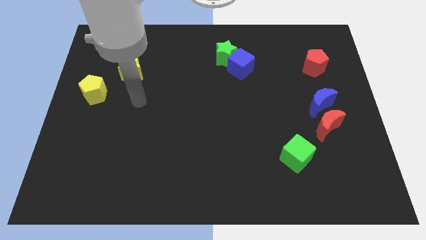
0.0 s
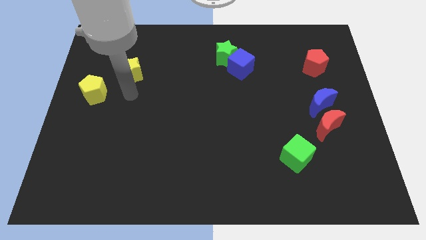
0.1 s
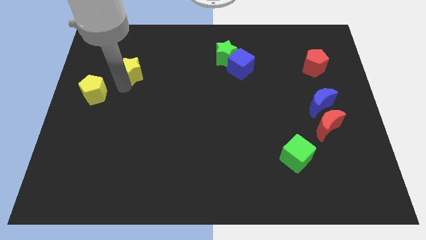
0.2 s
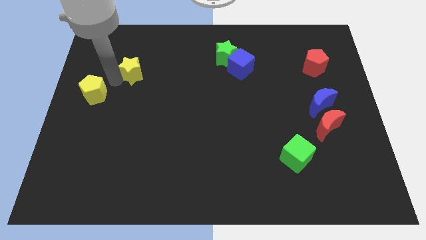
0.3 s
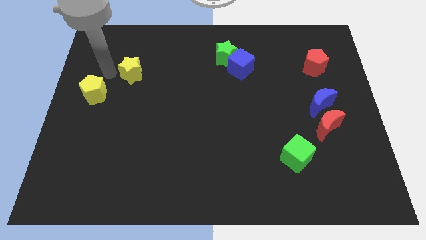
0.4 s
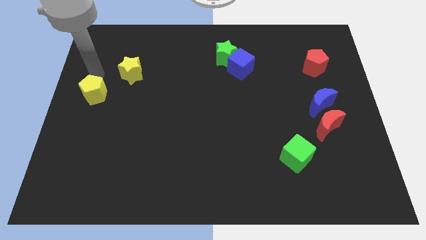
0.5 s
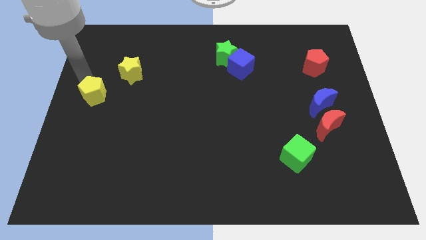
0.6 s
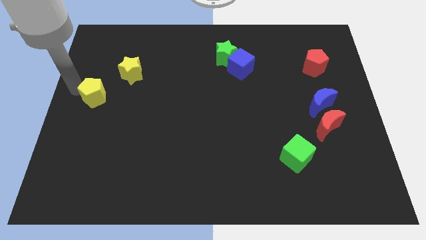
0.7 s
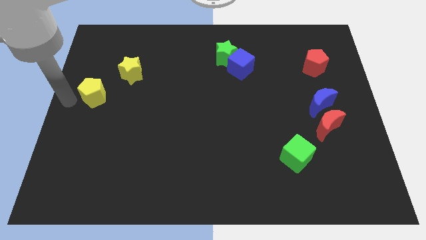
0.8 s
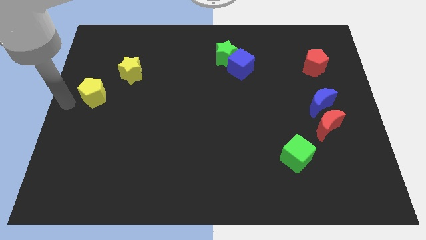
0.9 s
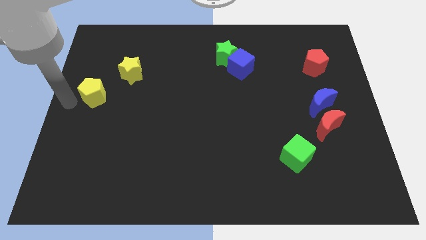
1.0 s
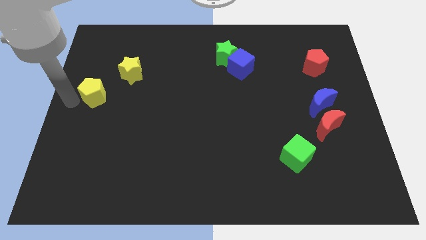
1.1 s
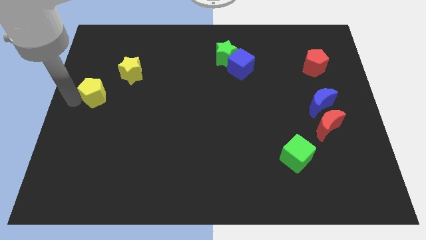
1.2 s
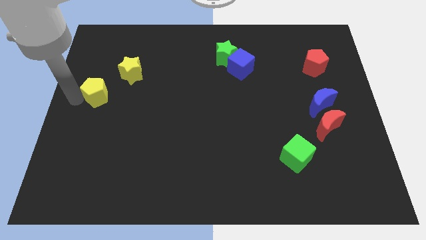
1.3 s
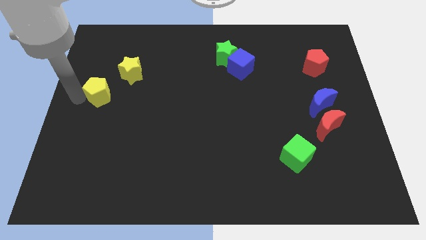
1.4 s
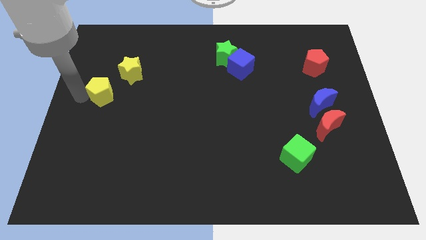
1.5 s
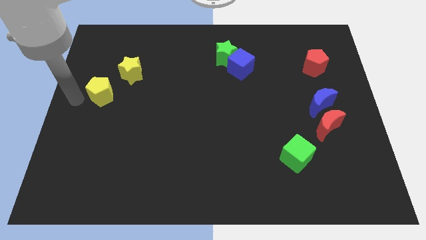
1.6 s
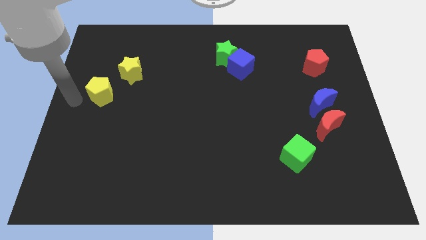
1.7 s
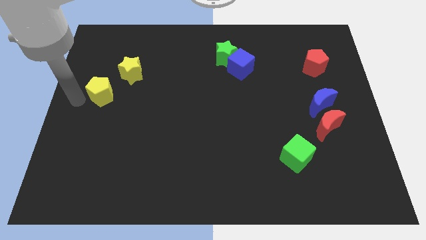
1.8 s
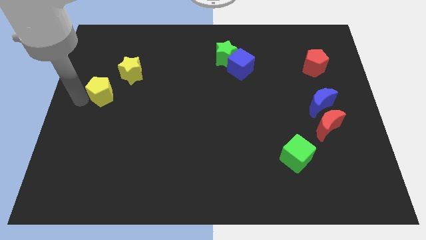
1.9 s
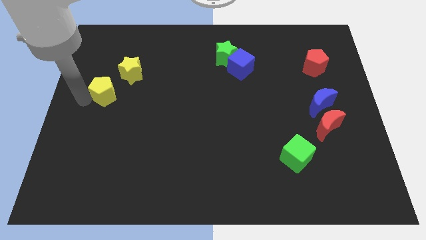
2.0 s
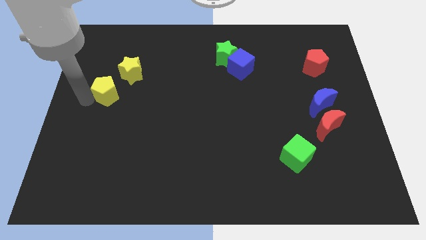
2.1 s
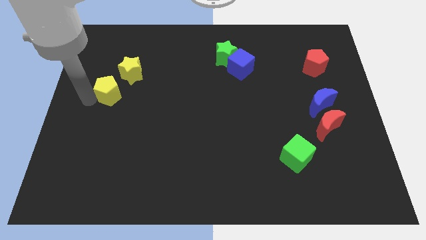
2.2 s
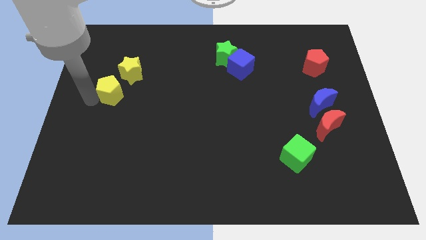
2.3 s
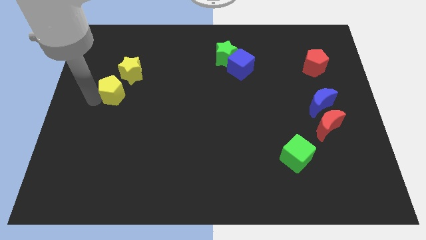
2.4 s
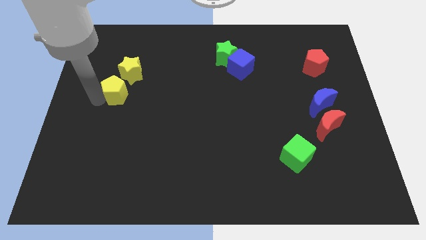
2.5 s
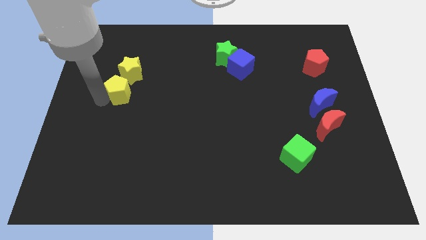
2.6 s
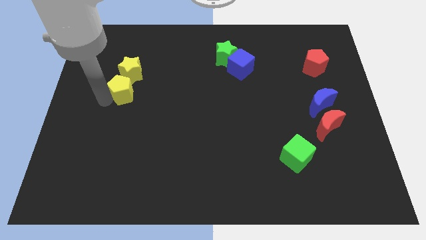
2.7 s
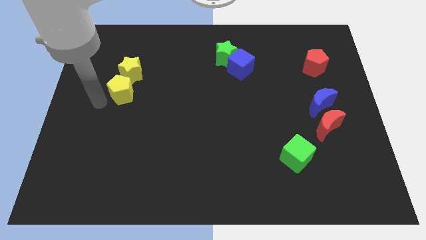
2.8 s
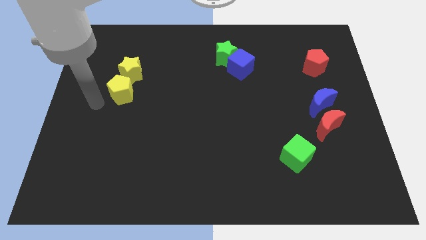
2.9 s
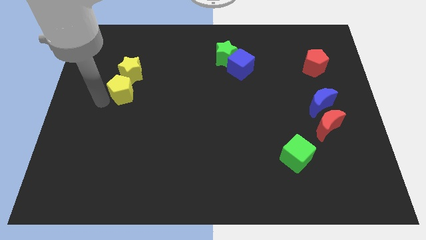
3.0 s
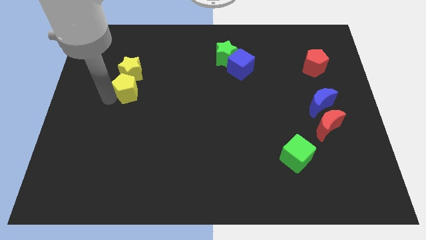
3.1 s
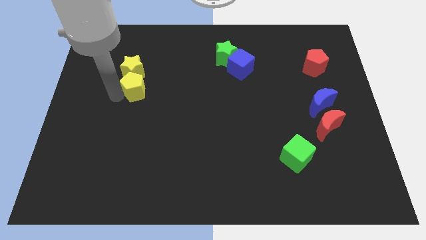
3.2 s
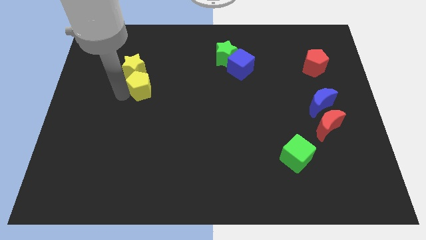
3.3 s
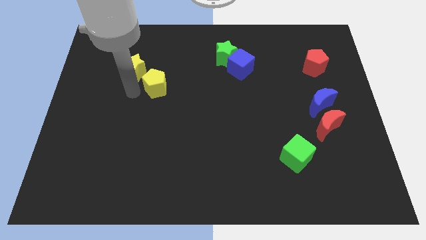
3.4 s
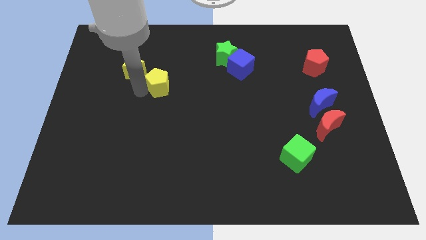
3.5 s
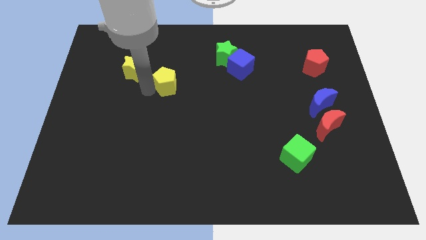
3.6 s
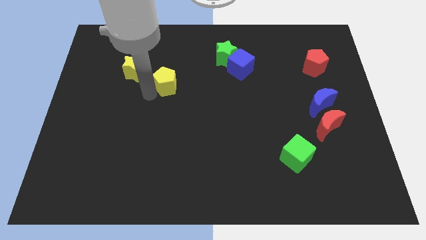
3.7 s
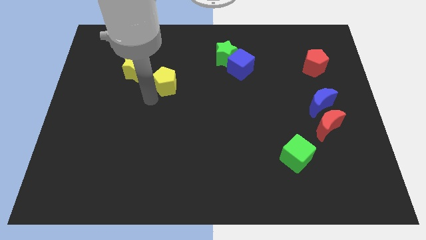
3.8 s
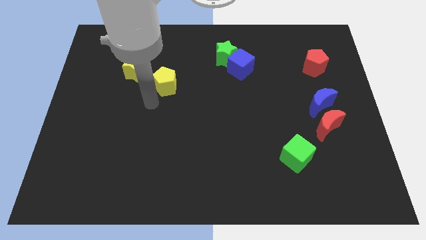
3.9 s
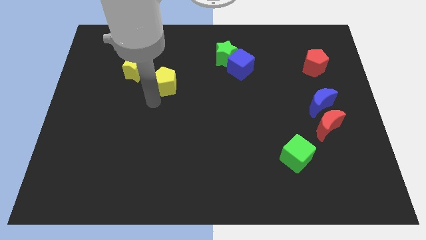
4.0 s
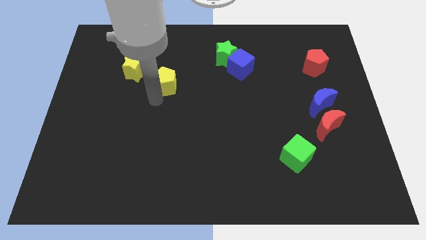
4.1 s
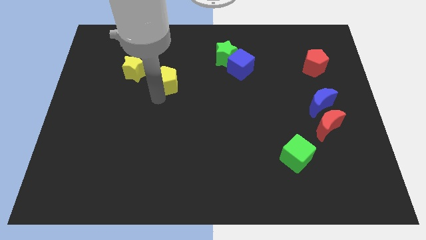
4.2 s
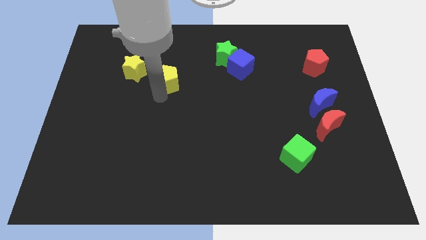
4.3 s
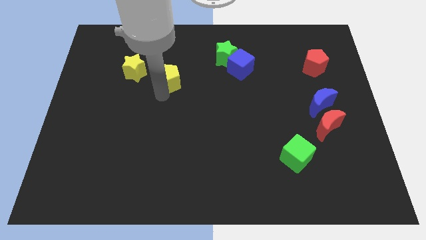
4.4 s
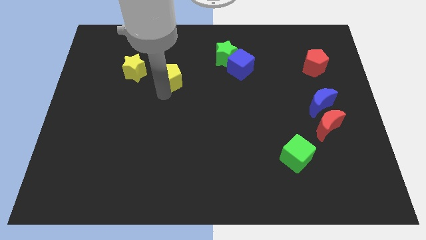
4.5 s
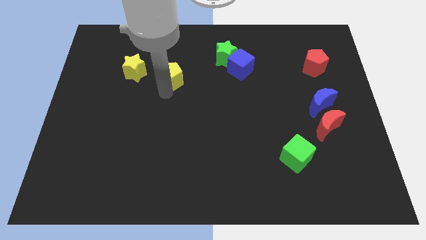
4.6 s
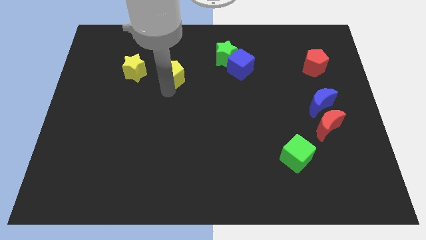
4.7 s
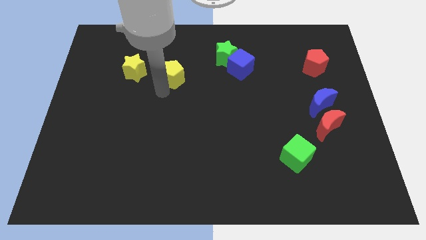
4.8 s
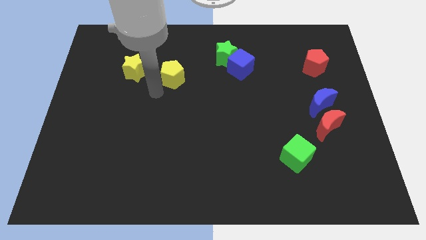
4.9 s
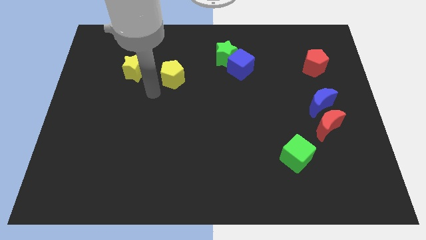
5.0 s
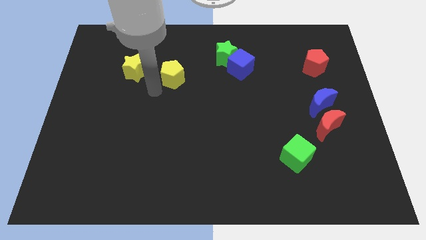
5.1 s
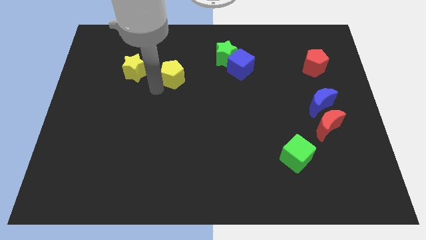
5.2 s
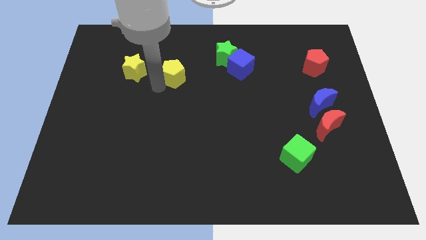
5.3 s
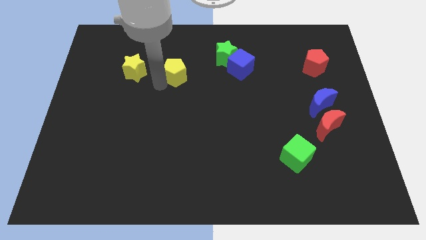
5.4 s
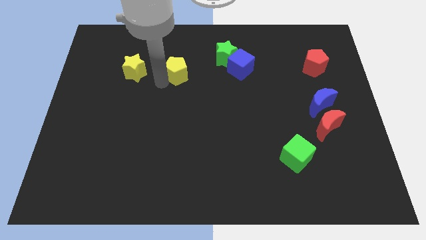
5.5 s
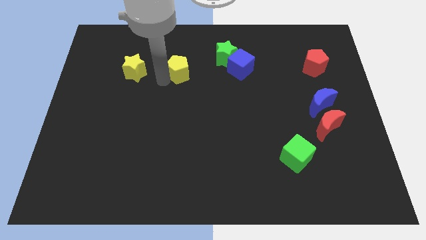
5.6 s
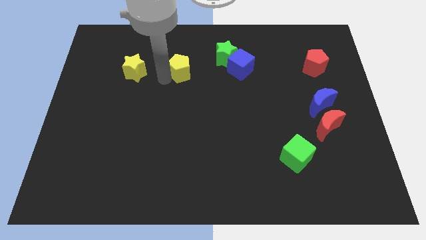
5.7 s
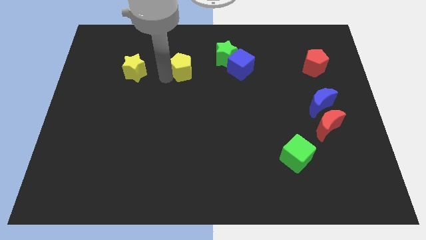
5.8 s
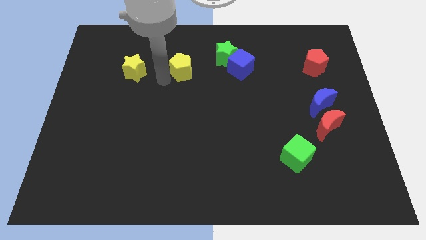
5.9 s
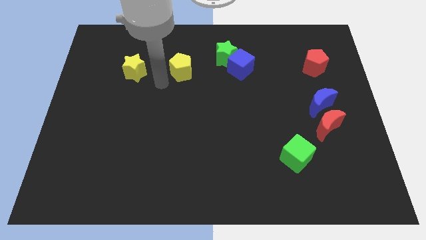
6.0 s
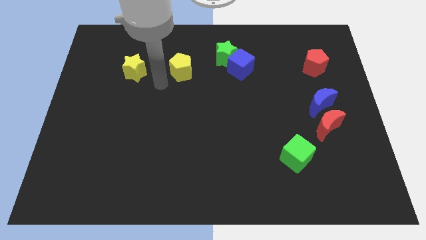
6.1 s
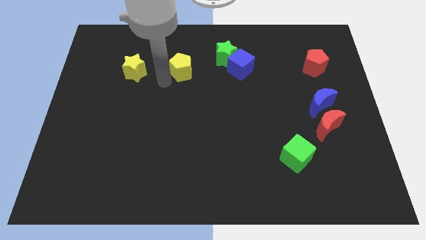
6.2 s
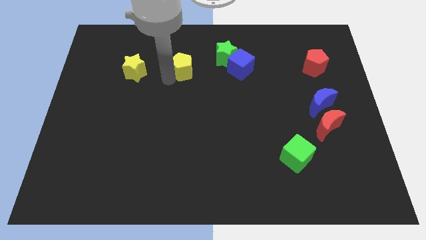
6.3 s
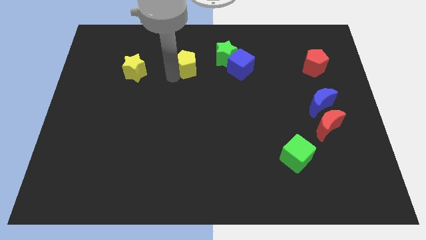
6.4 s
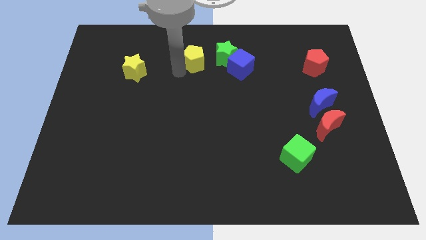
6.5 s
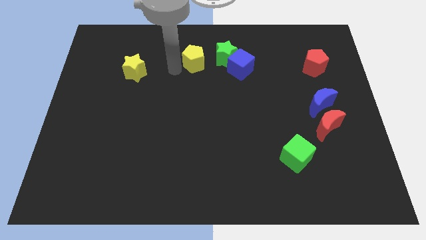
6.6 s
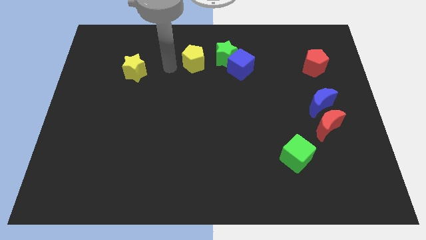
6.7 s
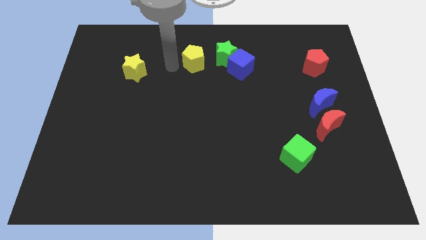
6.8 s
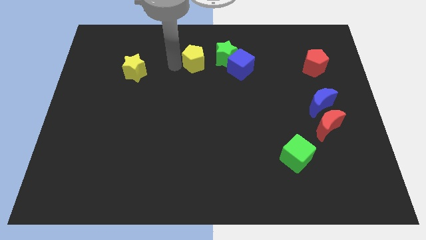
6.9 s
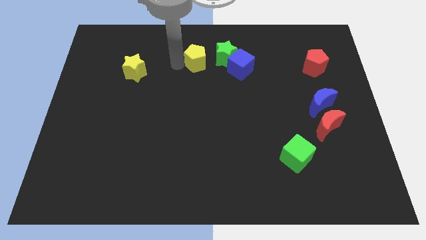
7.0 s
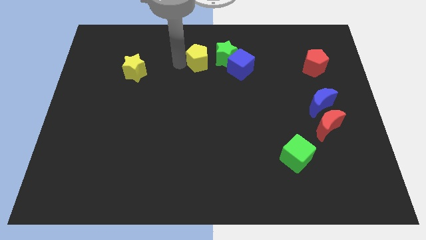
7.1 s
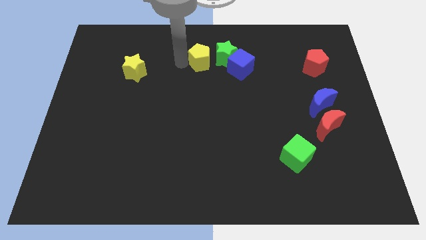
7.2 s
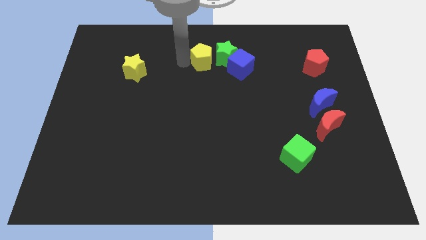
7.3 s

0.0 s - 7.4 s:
put the yellow pentagon close to the green star
